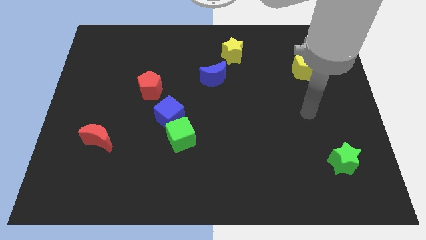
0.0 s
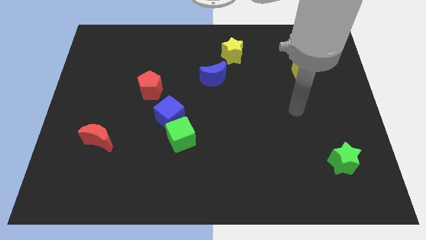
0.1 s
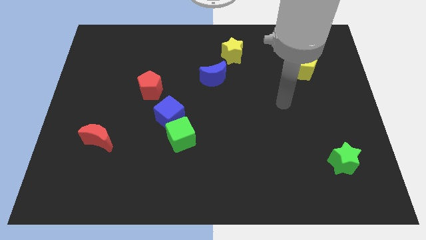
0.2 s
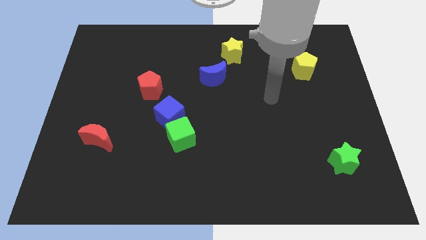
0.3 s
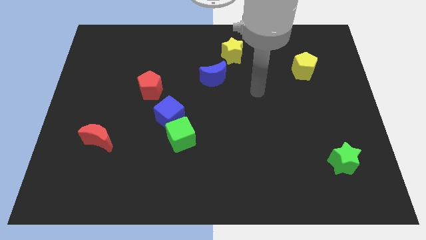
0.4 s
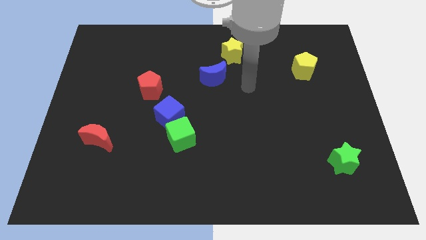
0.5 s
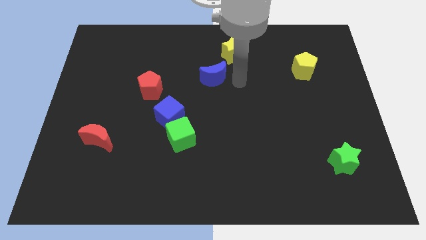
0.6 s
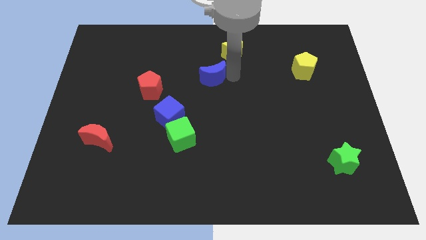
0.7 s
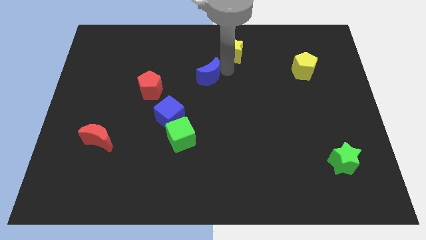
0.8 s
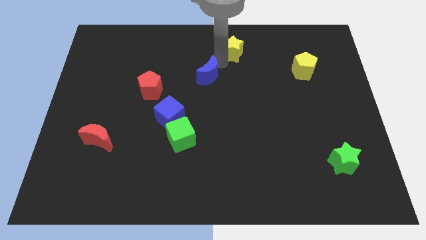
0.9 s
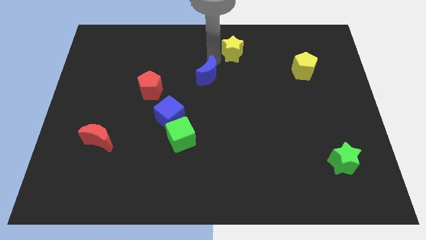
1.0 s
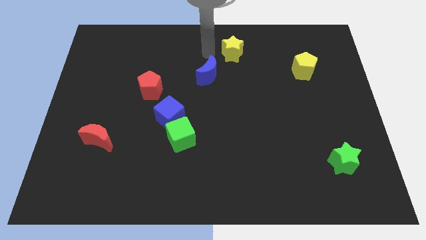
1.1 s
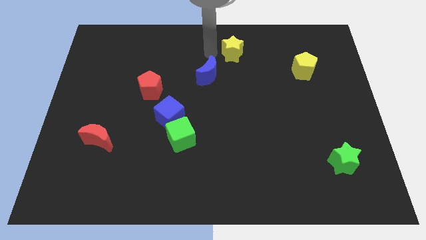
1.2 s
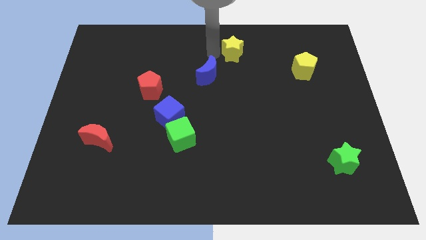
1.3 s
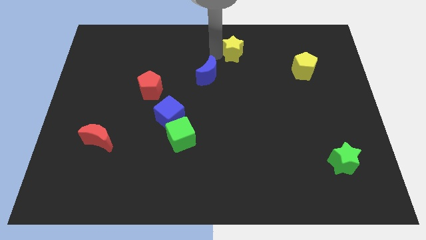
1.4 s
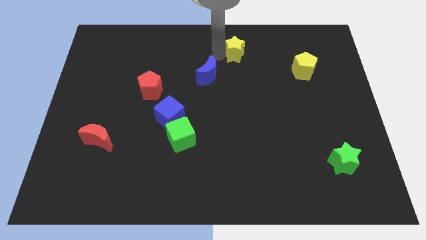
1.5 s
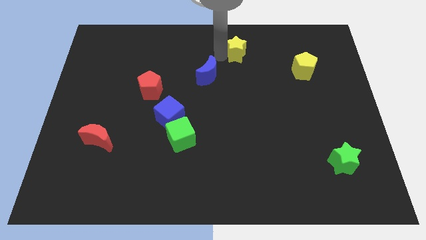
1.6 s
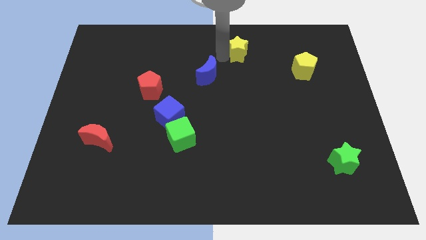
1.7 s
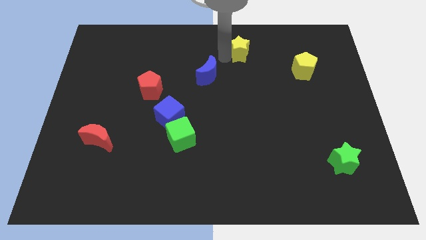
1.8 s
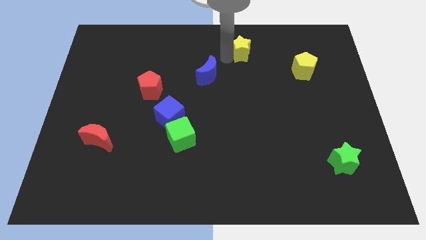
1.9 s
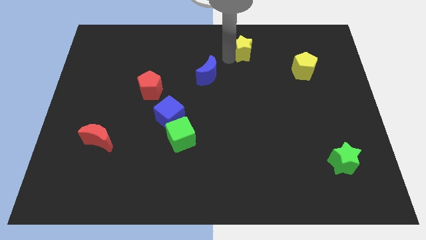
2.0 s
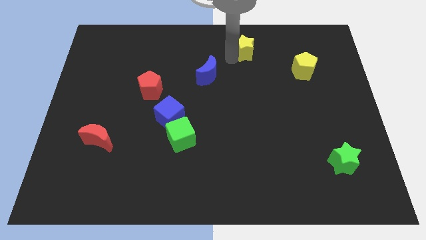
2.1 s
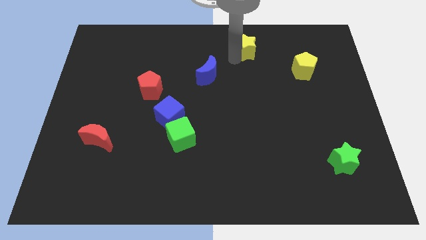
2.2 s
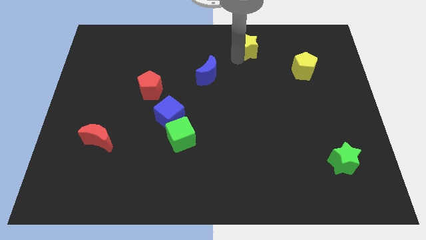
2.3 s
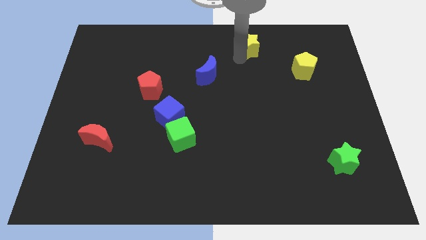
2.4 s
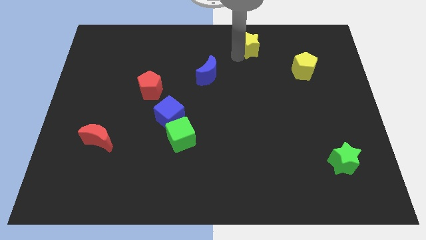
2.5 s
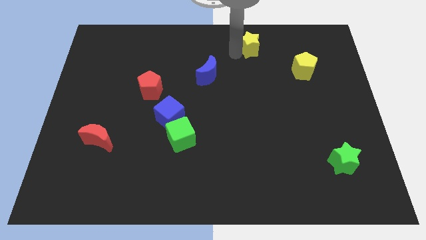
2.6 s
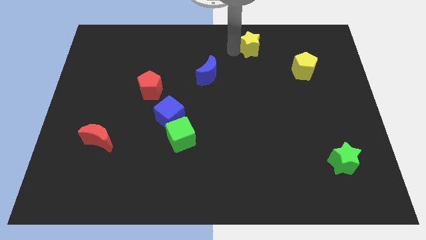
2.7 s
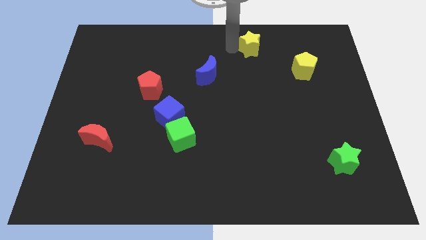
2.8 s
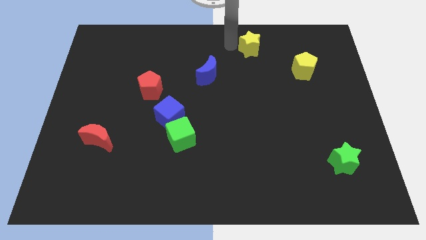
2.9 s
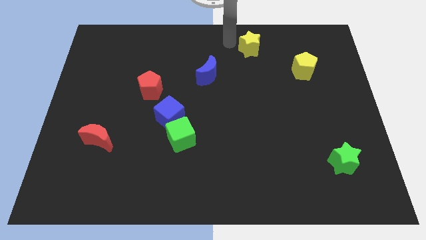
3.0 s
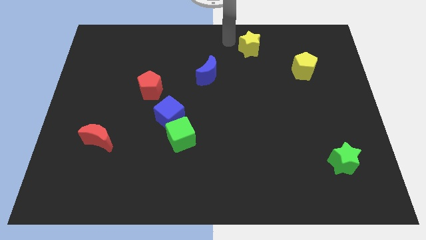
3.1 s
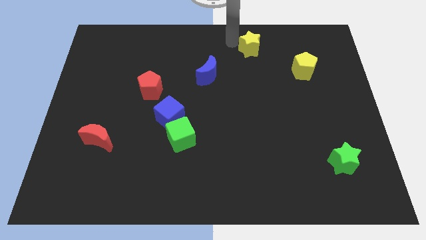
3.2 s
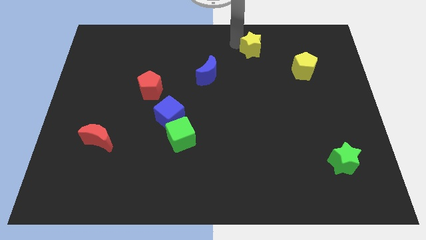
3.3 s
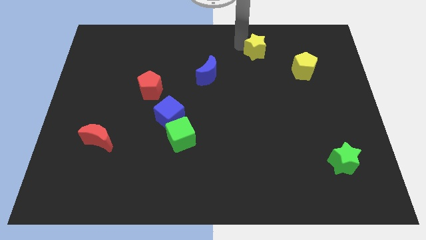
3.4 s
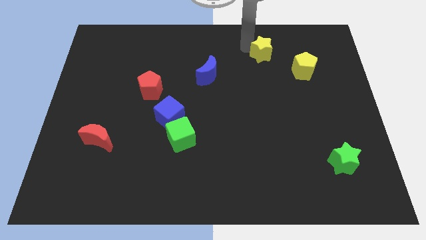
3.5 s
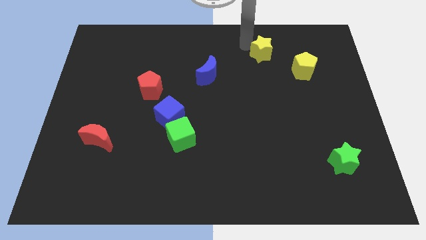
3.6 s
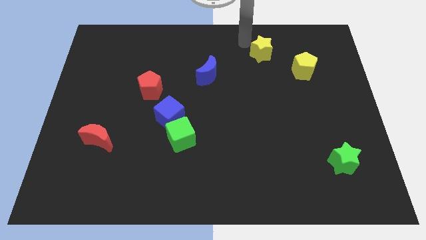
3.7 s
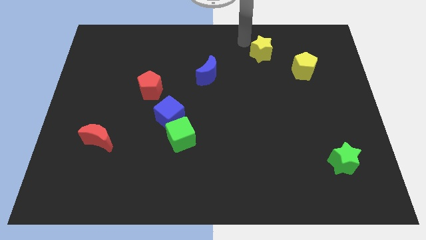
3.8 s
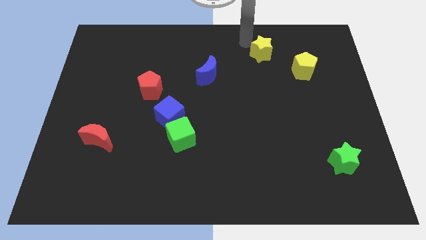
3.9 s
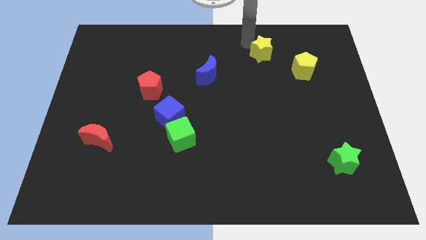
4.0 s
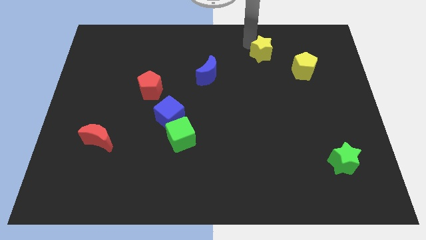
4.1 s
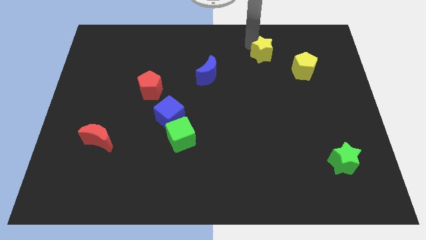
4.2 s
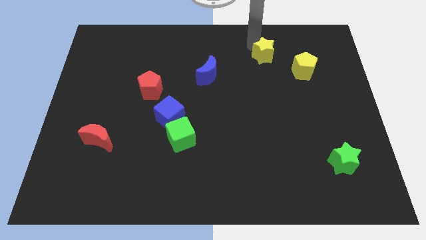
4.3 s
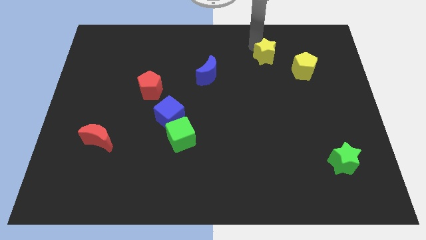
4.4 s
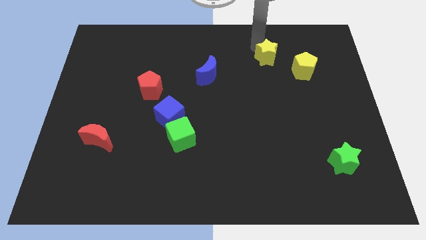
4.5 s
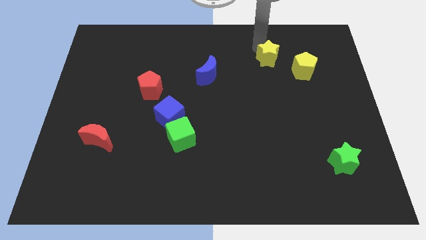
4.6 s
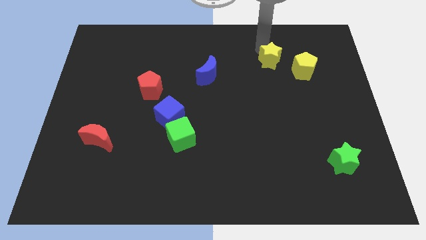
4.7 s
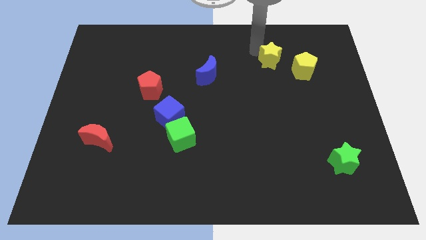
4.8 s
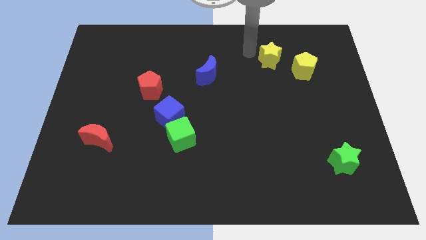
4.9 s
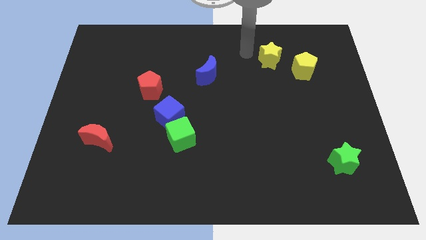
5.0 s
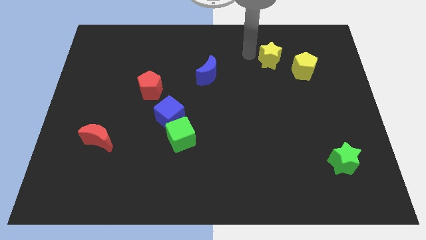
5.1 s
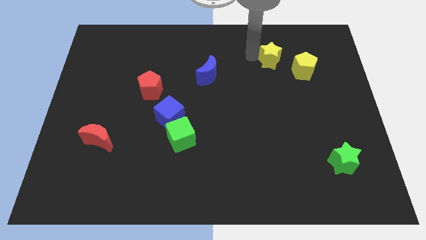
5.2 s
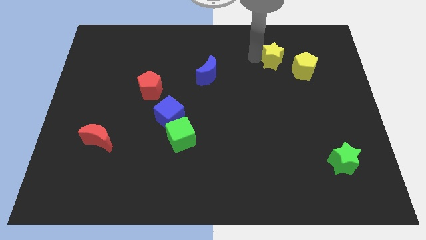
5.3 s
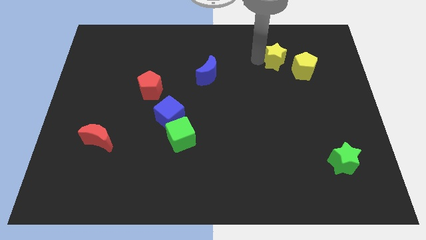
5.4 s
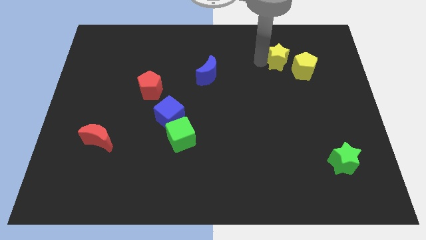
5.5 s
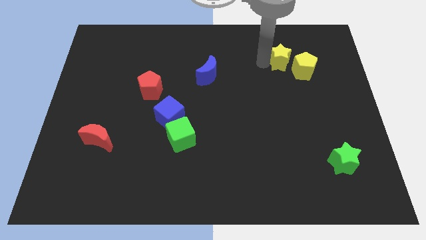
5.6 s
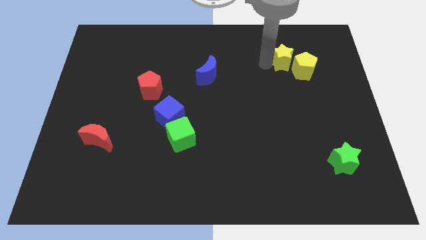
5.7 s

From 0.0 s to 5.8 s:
push the yellow star to the yellow pentagon

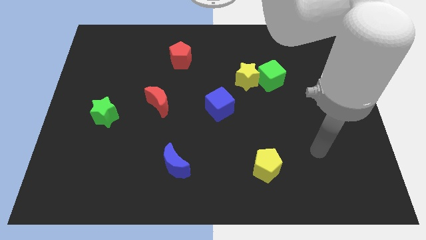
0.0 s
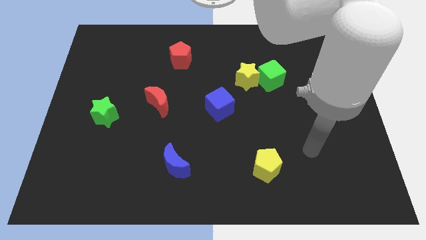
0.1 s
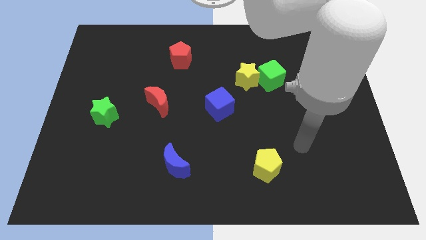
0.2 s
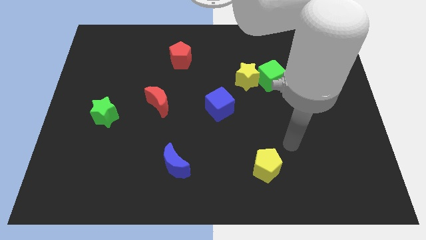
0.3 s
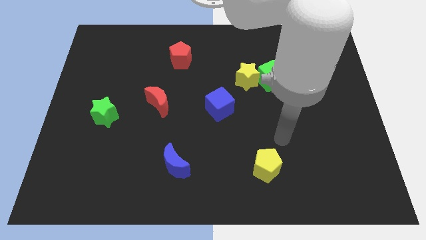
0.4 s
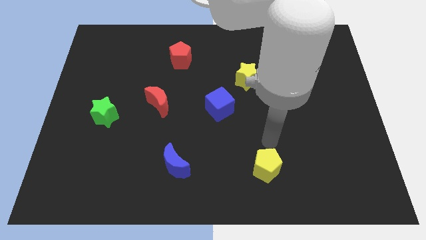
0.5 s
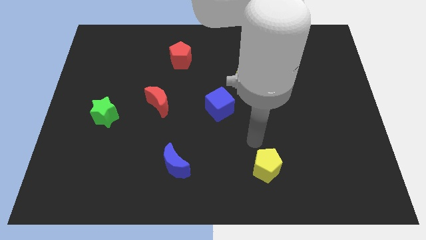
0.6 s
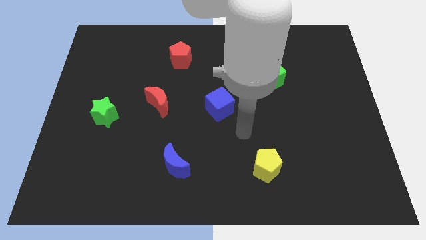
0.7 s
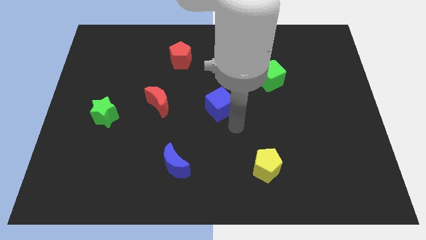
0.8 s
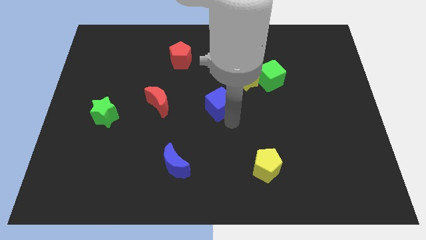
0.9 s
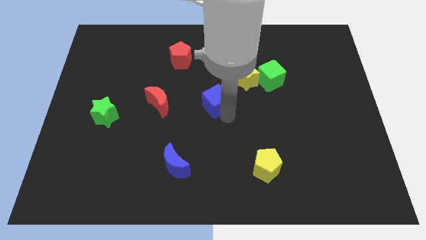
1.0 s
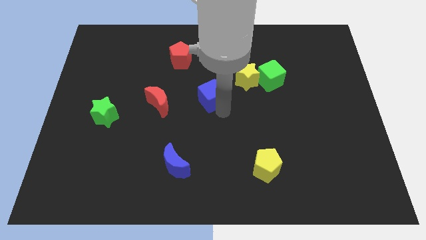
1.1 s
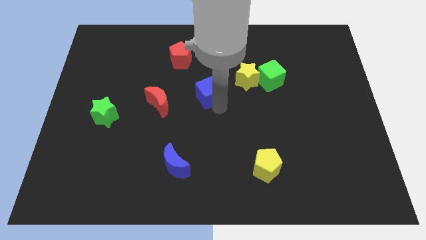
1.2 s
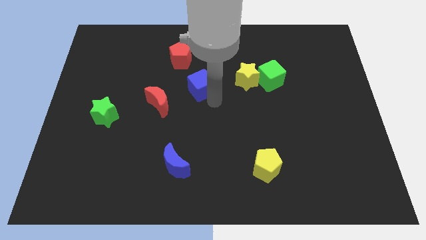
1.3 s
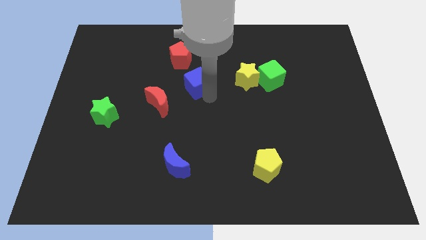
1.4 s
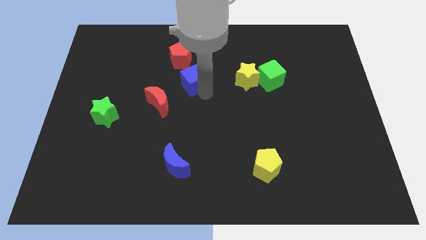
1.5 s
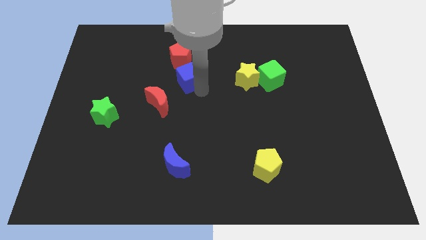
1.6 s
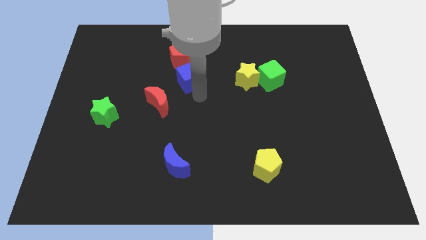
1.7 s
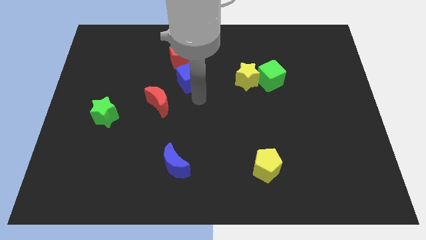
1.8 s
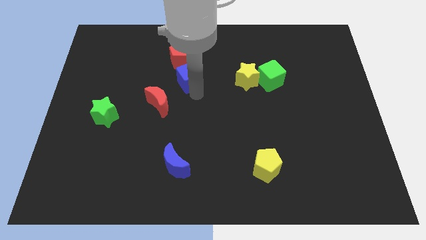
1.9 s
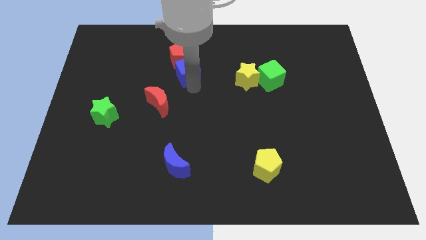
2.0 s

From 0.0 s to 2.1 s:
put the blue cube close to the red pentagon
